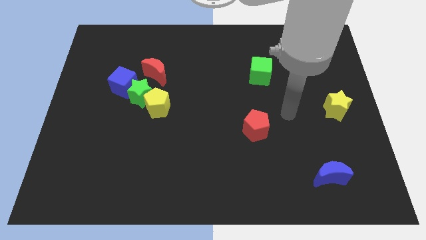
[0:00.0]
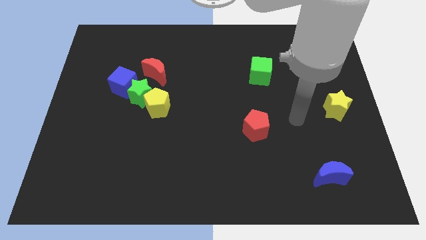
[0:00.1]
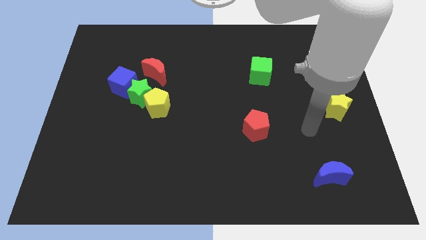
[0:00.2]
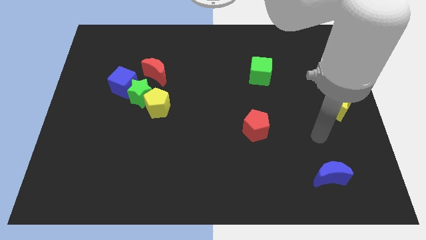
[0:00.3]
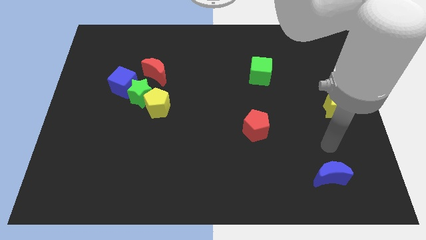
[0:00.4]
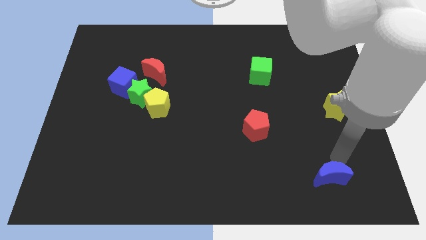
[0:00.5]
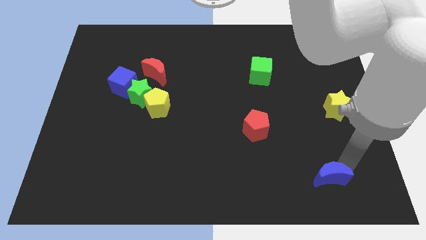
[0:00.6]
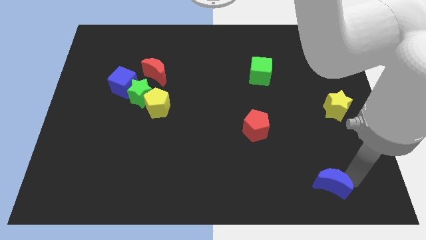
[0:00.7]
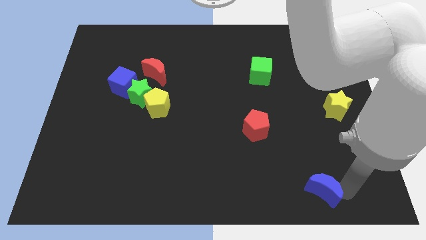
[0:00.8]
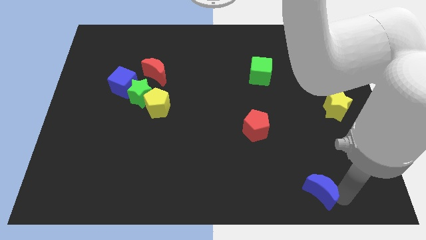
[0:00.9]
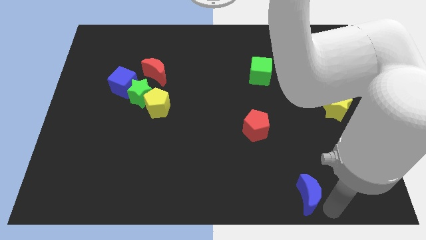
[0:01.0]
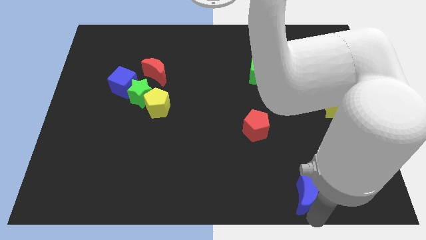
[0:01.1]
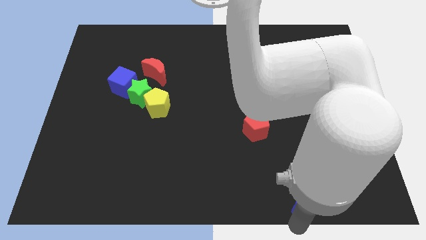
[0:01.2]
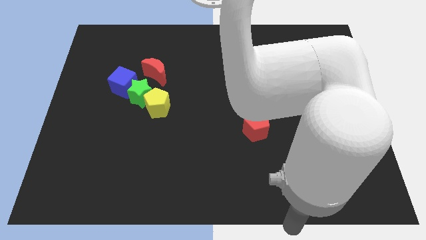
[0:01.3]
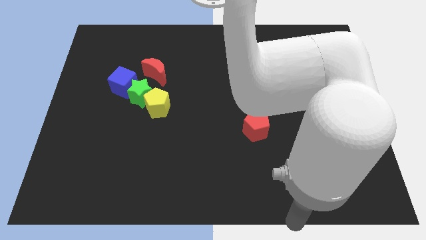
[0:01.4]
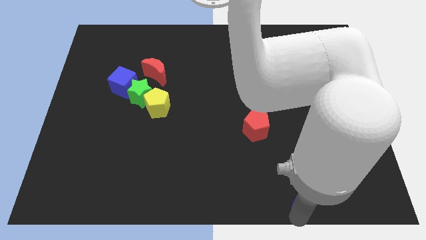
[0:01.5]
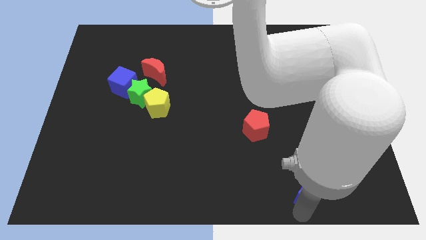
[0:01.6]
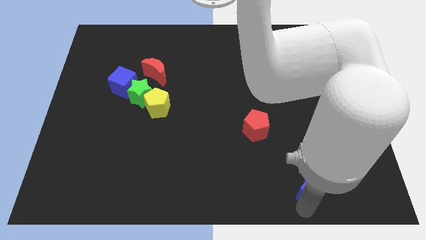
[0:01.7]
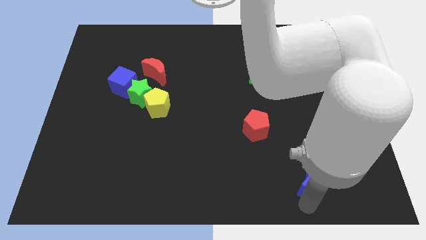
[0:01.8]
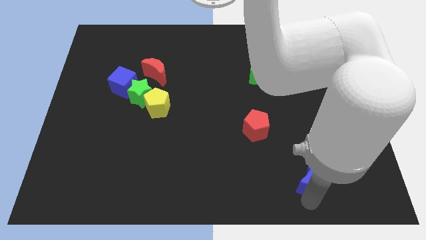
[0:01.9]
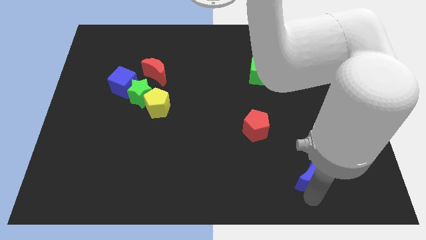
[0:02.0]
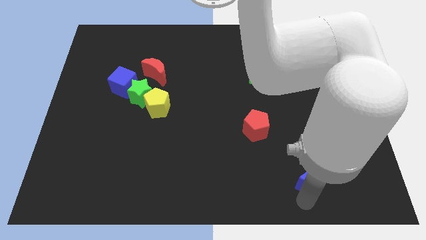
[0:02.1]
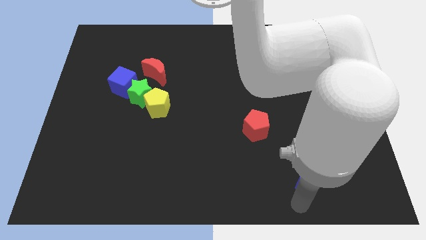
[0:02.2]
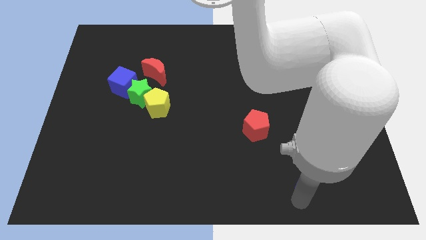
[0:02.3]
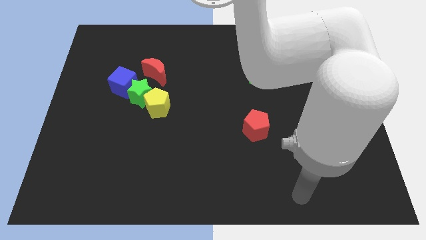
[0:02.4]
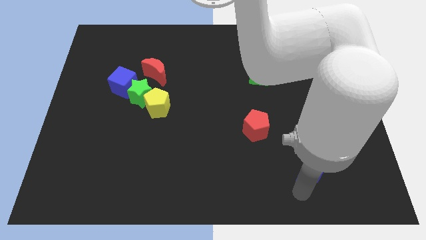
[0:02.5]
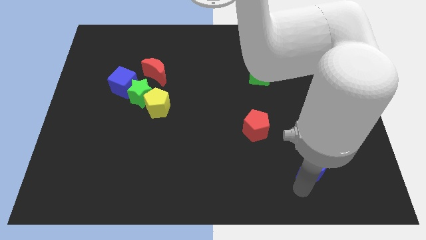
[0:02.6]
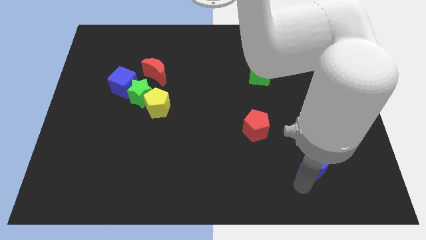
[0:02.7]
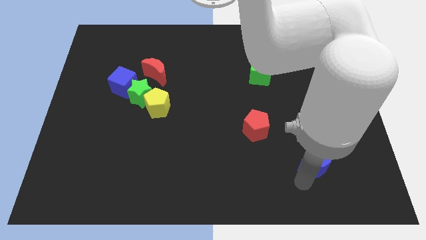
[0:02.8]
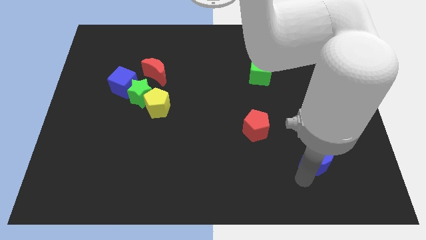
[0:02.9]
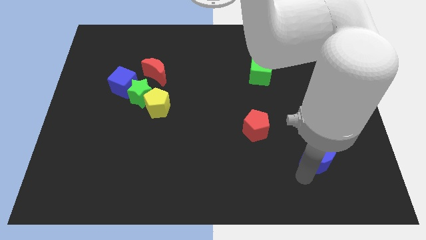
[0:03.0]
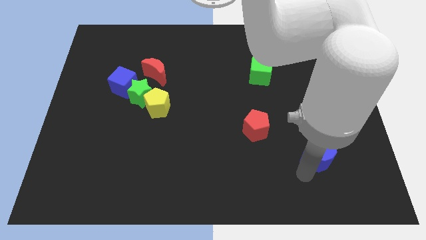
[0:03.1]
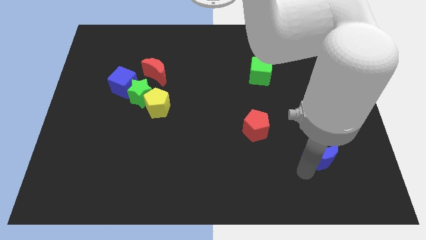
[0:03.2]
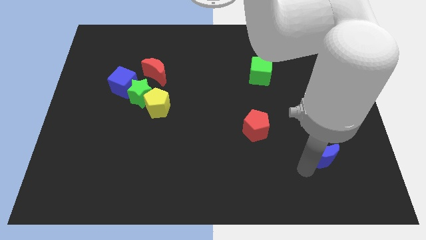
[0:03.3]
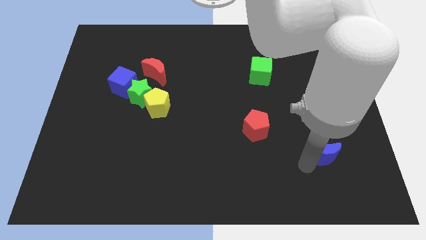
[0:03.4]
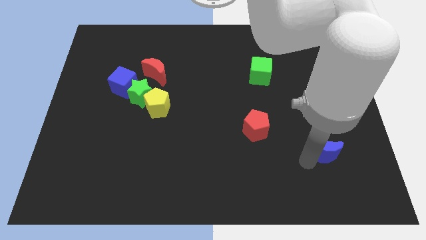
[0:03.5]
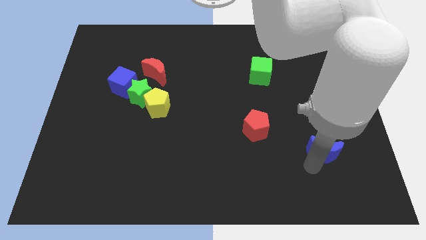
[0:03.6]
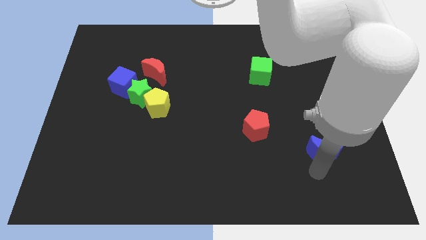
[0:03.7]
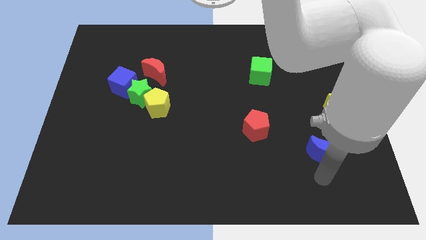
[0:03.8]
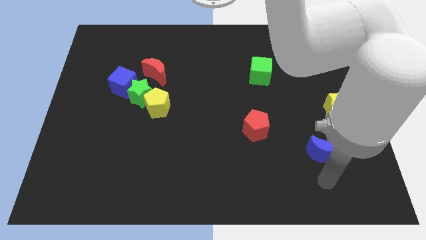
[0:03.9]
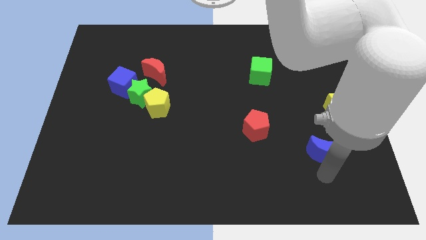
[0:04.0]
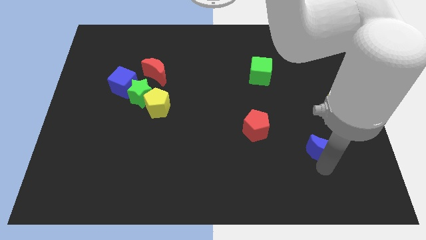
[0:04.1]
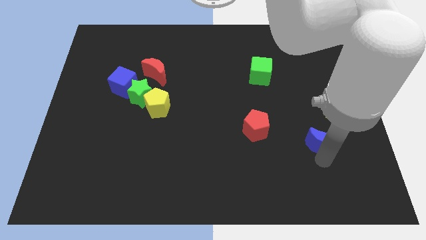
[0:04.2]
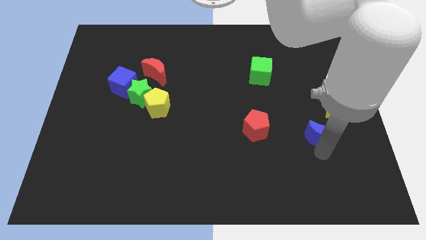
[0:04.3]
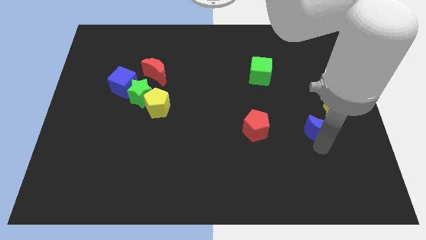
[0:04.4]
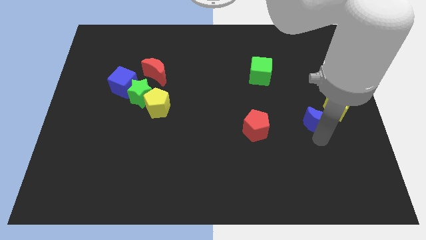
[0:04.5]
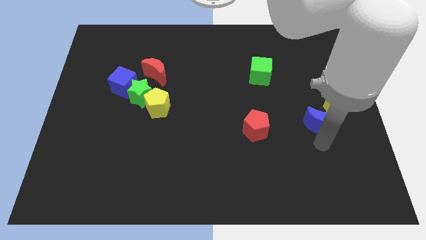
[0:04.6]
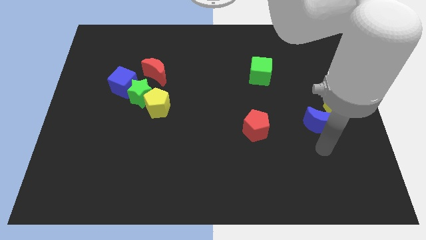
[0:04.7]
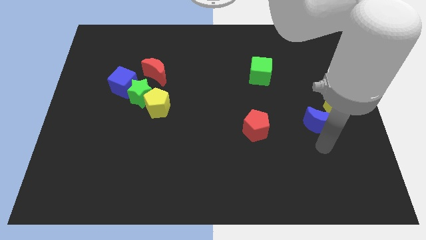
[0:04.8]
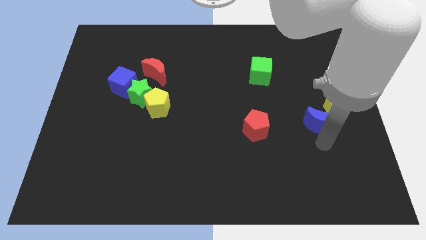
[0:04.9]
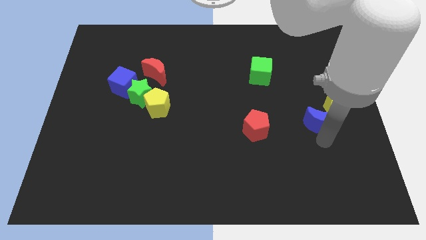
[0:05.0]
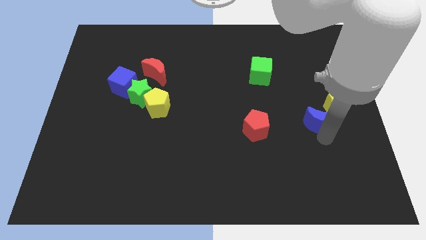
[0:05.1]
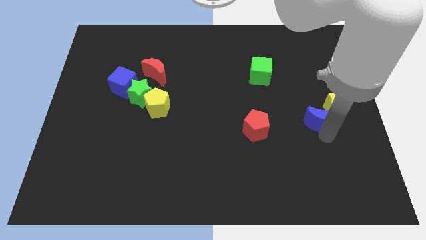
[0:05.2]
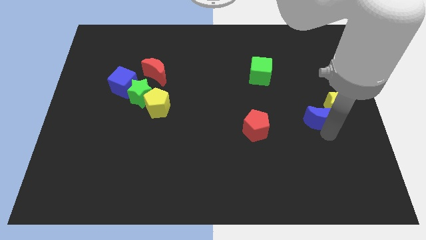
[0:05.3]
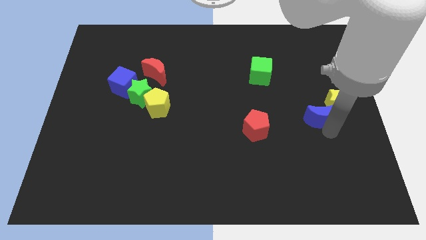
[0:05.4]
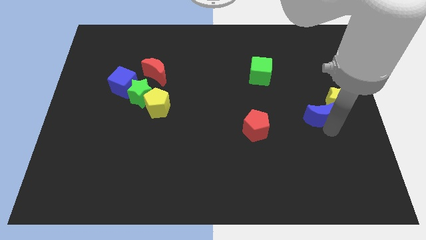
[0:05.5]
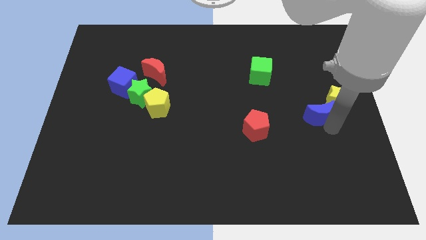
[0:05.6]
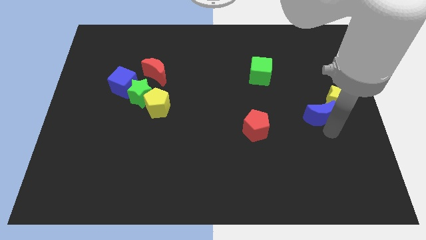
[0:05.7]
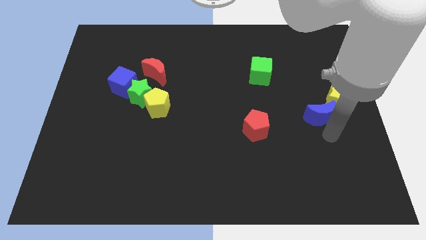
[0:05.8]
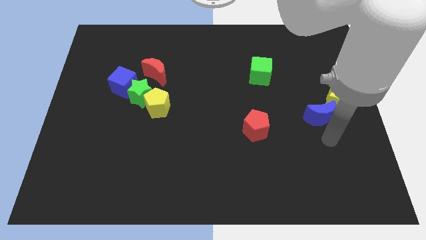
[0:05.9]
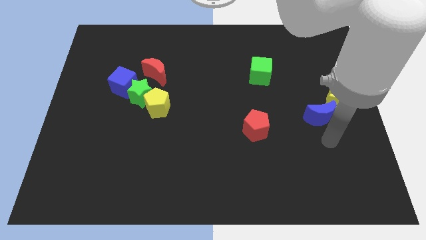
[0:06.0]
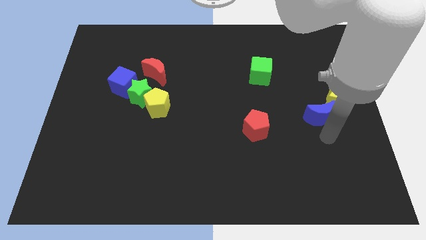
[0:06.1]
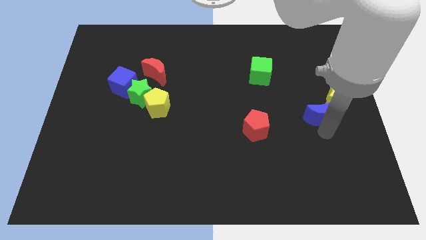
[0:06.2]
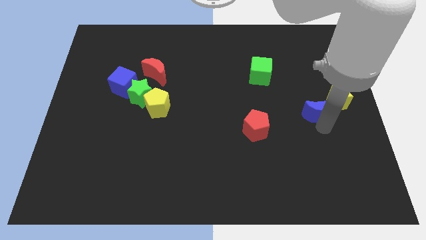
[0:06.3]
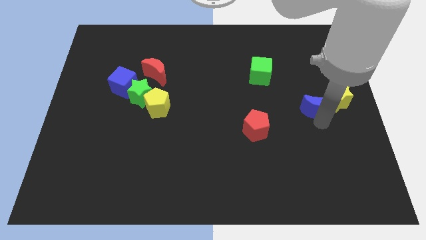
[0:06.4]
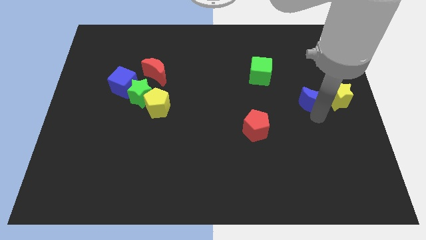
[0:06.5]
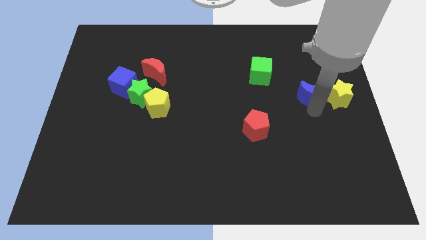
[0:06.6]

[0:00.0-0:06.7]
push the blue moon upwards

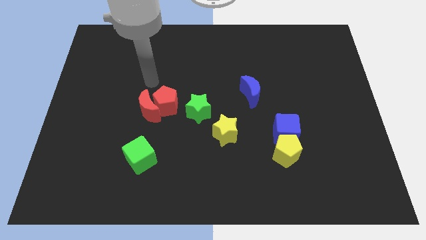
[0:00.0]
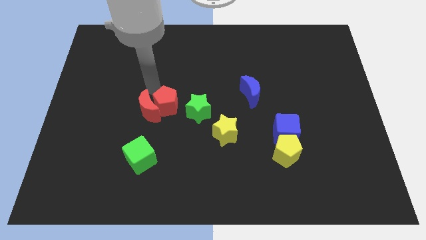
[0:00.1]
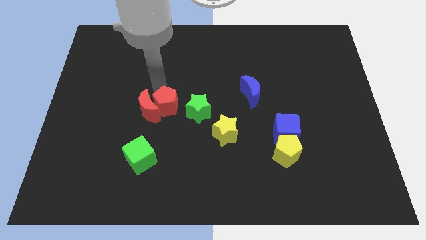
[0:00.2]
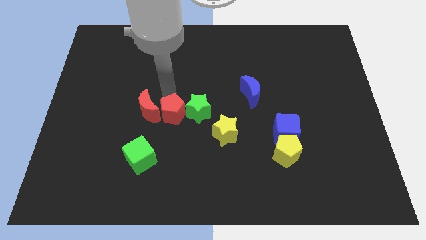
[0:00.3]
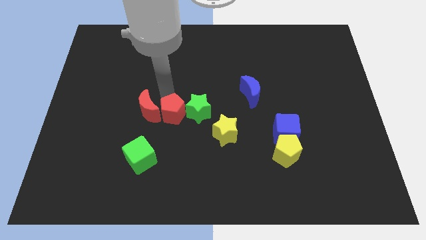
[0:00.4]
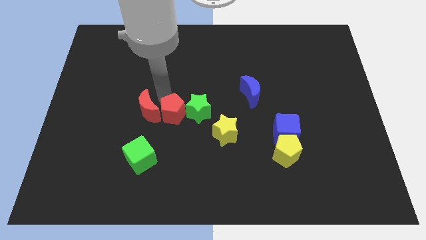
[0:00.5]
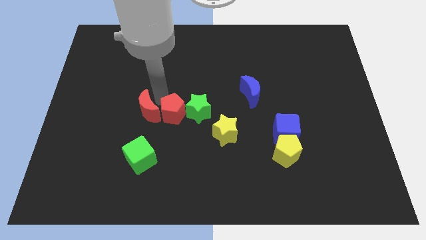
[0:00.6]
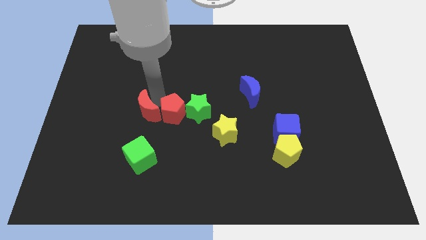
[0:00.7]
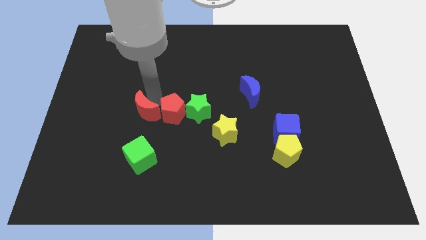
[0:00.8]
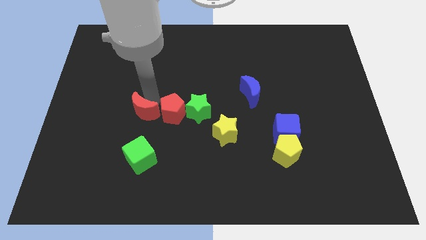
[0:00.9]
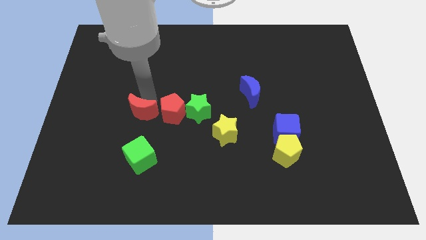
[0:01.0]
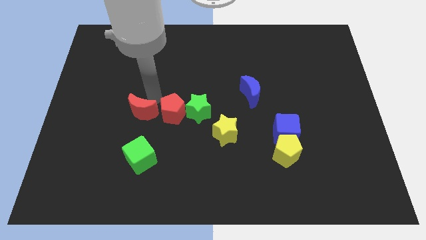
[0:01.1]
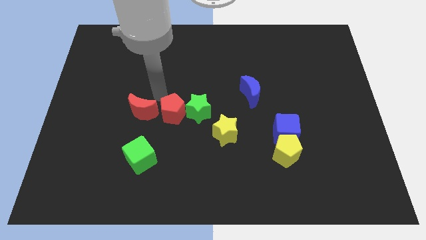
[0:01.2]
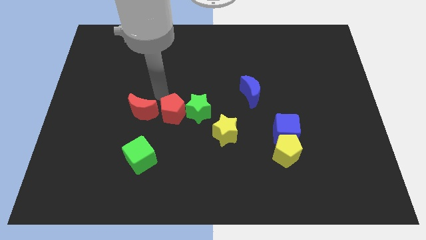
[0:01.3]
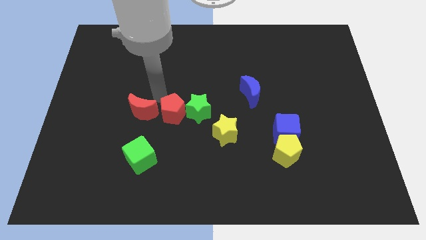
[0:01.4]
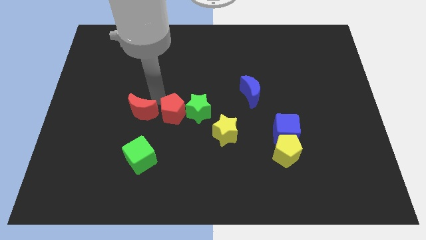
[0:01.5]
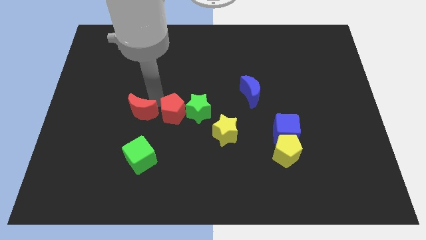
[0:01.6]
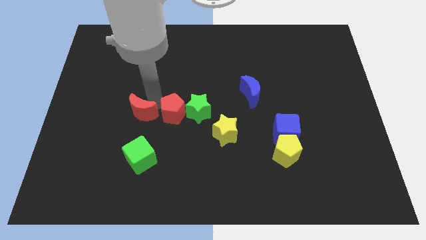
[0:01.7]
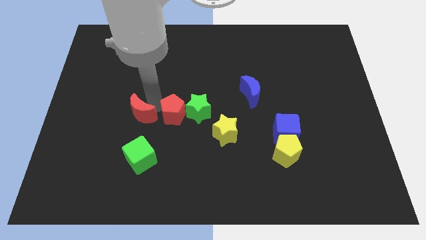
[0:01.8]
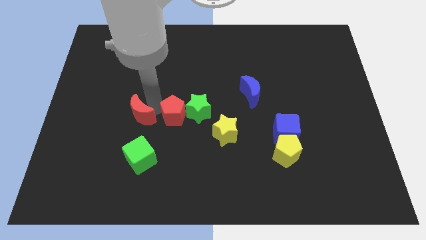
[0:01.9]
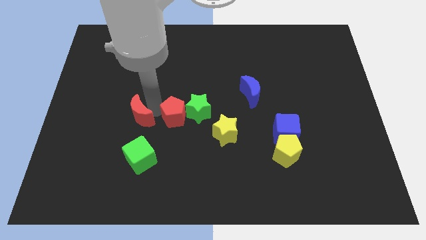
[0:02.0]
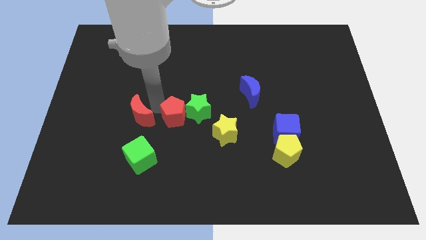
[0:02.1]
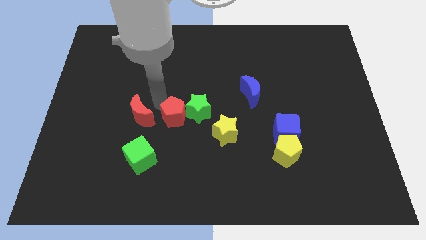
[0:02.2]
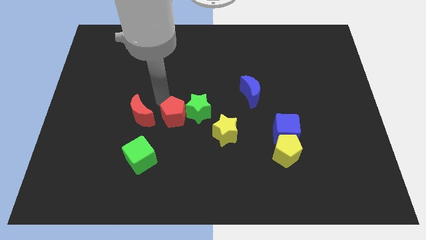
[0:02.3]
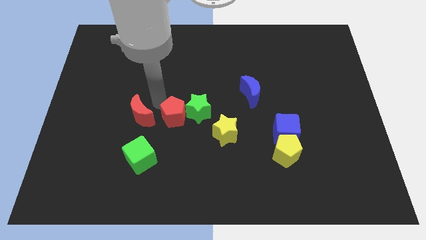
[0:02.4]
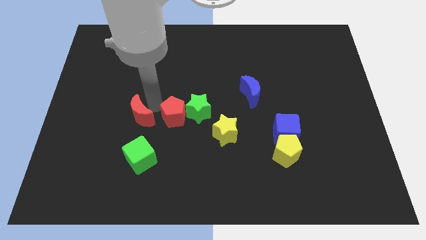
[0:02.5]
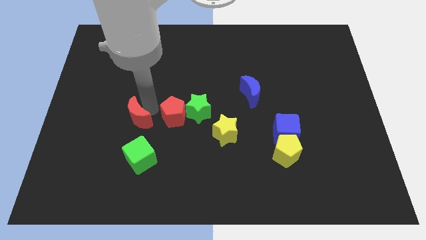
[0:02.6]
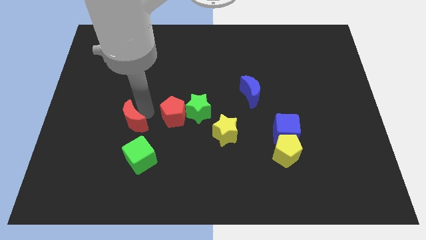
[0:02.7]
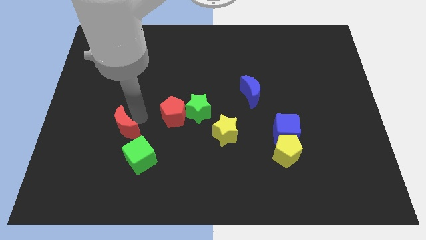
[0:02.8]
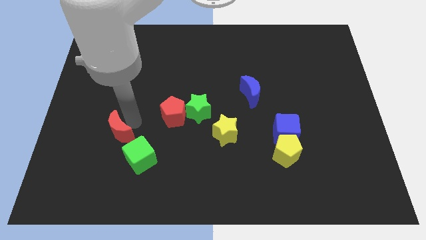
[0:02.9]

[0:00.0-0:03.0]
slightly move the red moon down and left
